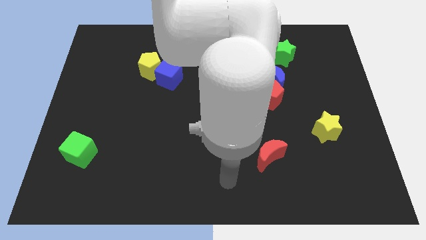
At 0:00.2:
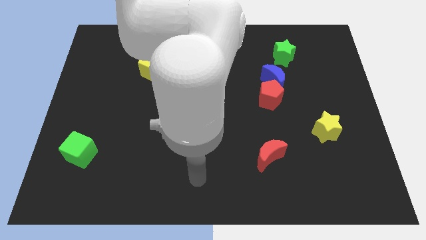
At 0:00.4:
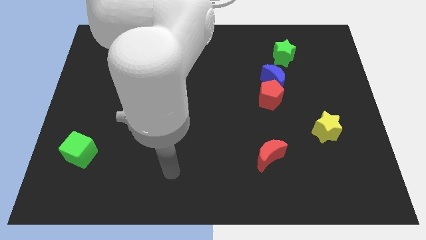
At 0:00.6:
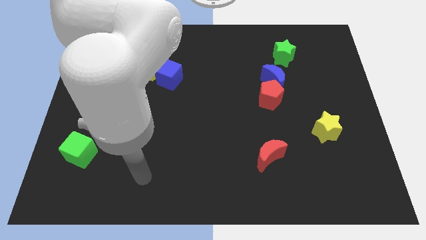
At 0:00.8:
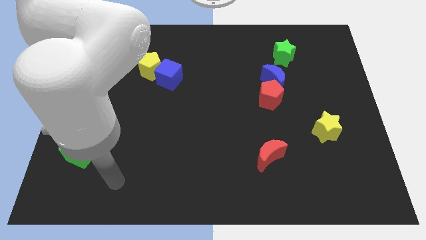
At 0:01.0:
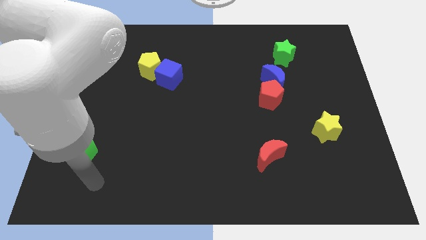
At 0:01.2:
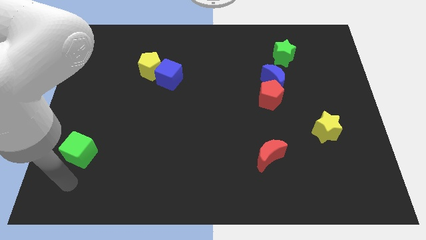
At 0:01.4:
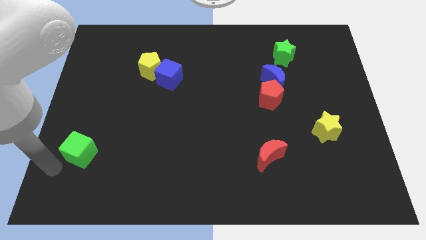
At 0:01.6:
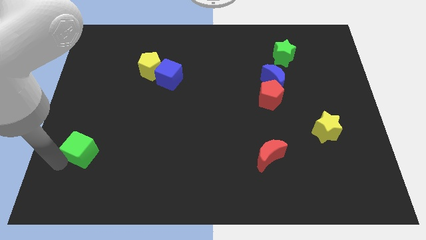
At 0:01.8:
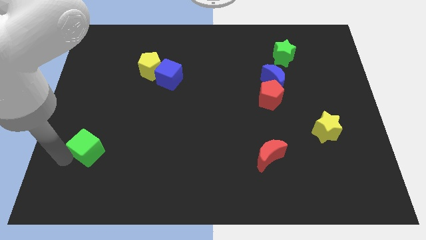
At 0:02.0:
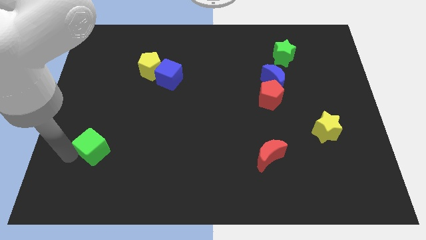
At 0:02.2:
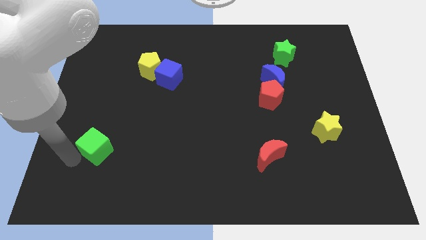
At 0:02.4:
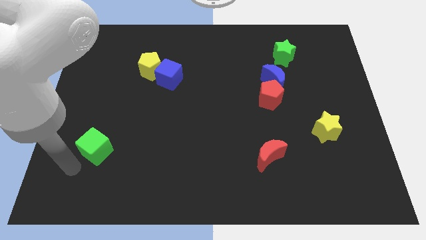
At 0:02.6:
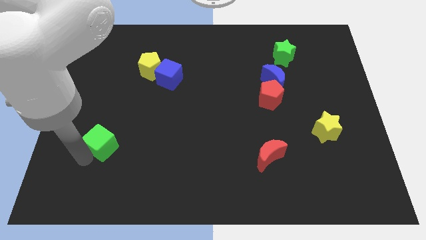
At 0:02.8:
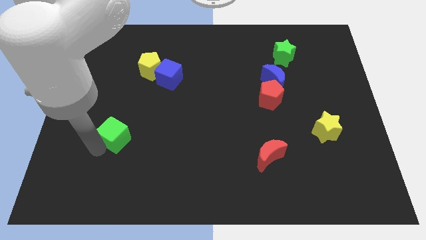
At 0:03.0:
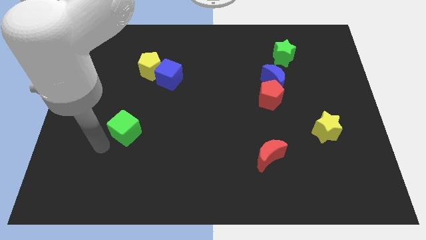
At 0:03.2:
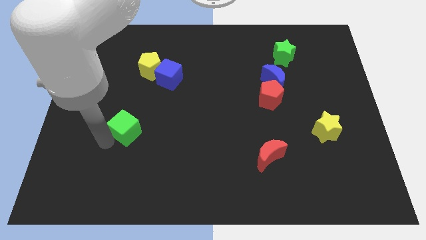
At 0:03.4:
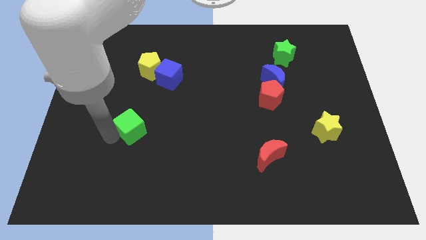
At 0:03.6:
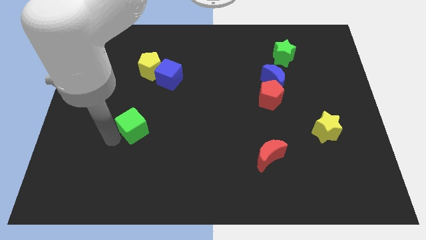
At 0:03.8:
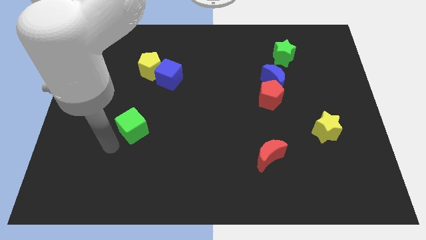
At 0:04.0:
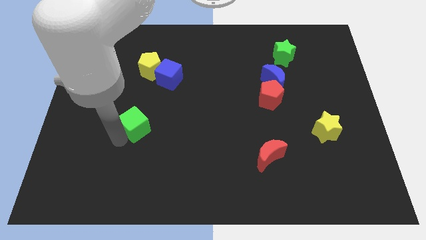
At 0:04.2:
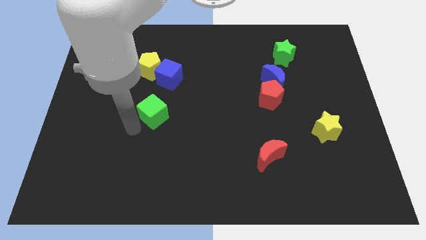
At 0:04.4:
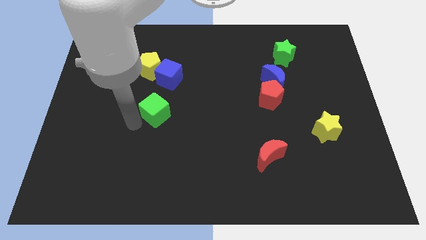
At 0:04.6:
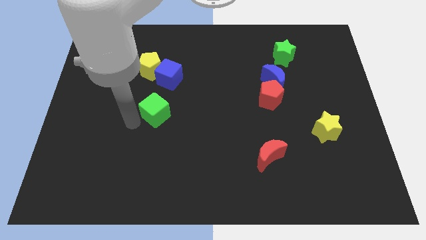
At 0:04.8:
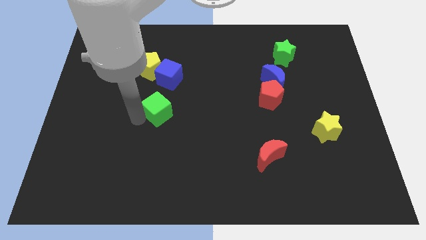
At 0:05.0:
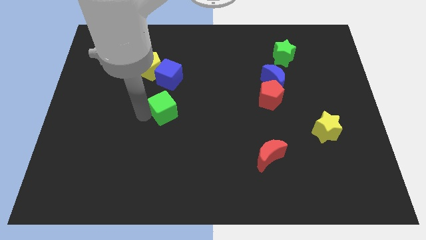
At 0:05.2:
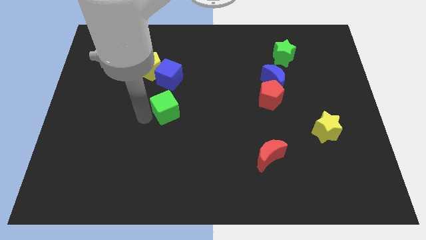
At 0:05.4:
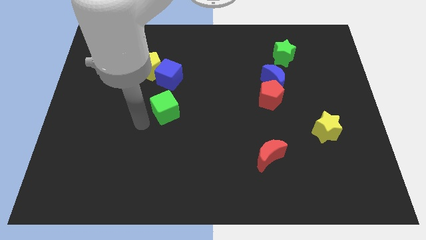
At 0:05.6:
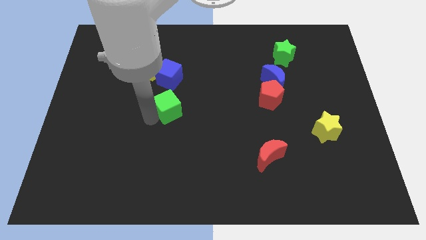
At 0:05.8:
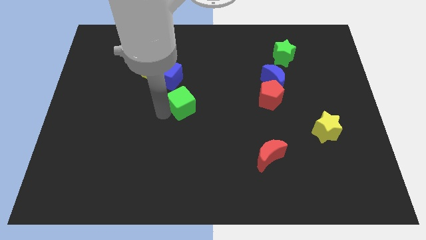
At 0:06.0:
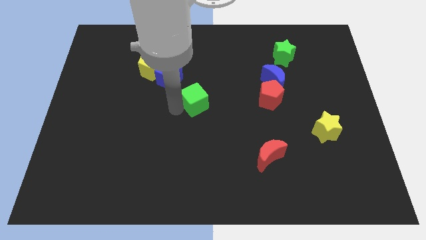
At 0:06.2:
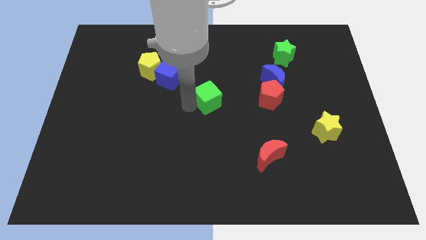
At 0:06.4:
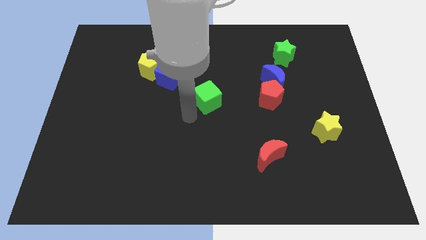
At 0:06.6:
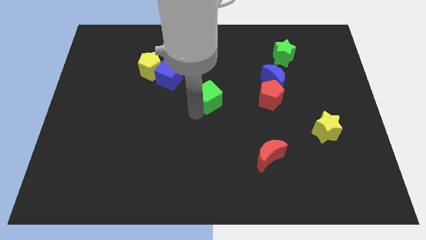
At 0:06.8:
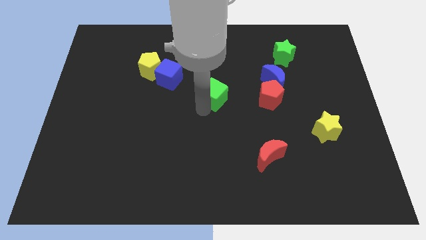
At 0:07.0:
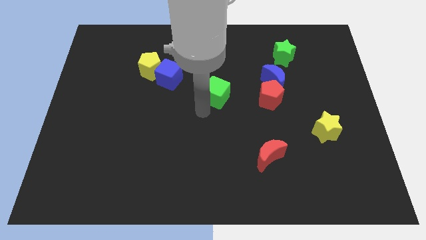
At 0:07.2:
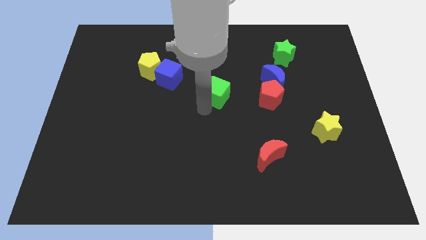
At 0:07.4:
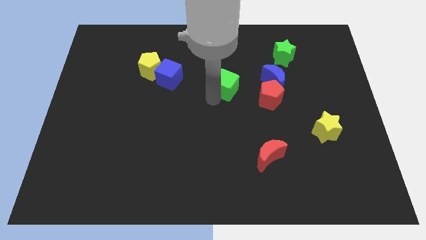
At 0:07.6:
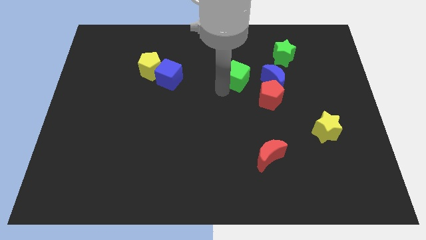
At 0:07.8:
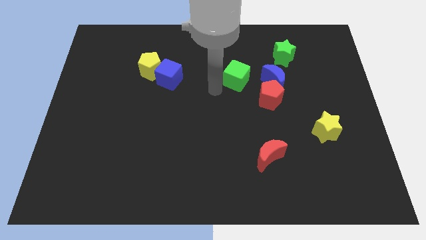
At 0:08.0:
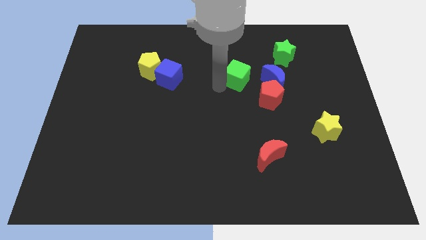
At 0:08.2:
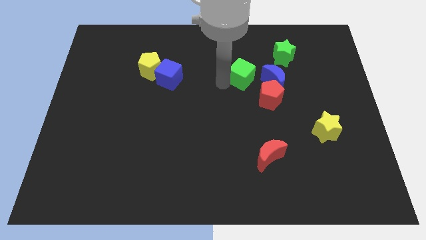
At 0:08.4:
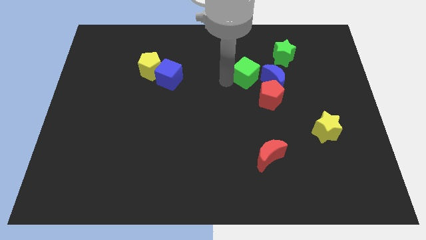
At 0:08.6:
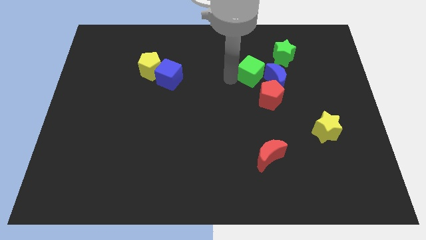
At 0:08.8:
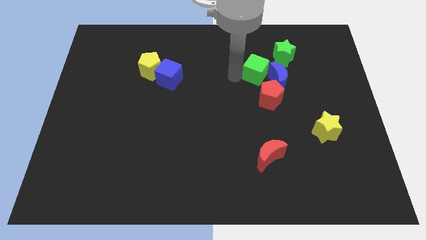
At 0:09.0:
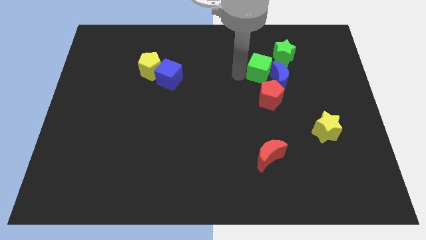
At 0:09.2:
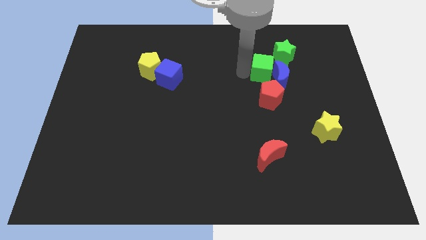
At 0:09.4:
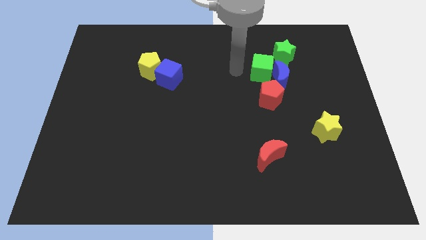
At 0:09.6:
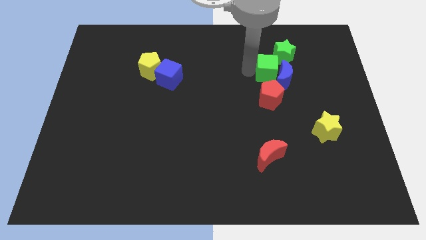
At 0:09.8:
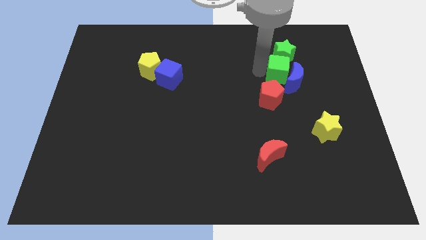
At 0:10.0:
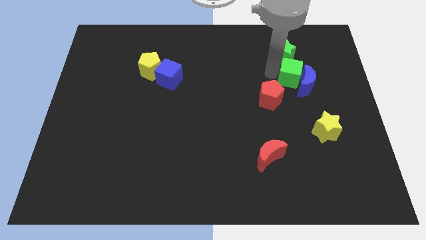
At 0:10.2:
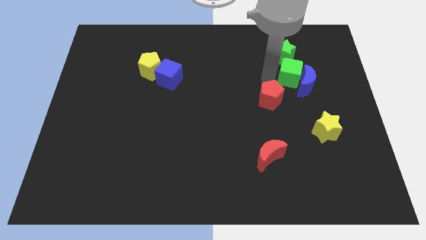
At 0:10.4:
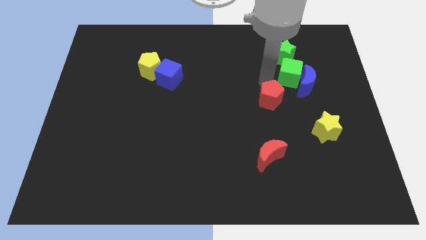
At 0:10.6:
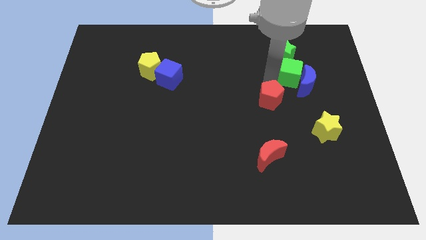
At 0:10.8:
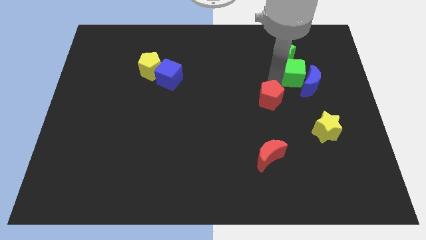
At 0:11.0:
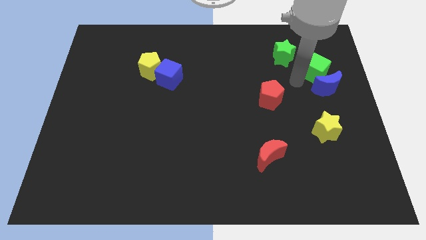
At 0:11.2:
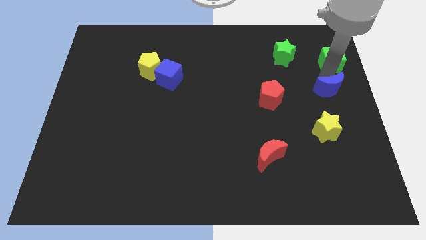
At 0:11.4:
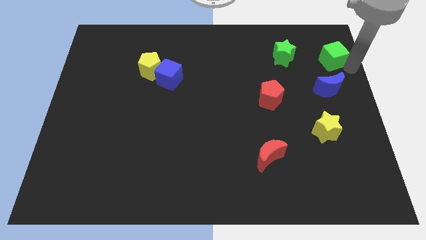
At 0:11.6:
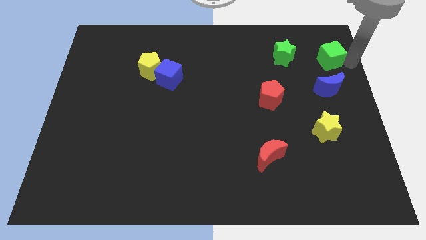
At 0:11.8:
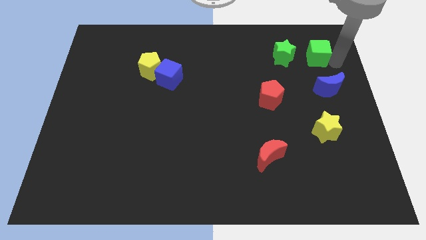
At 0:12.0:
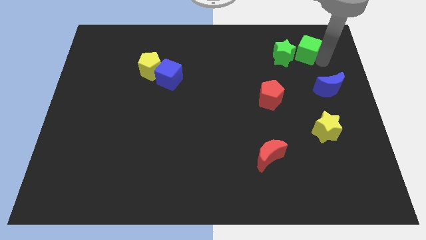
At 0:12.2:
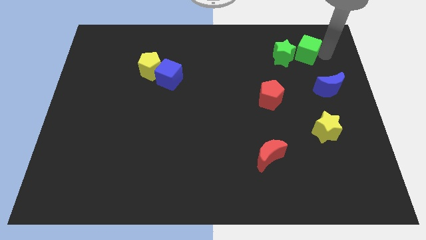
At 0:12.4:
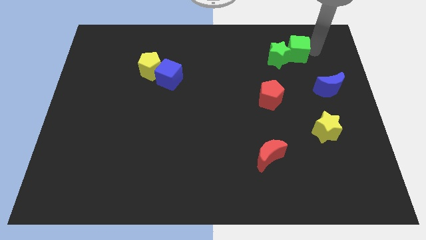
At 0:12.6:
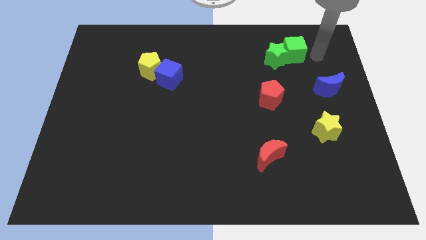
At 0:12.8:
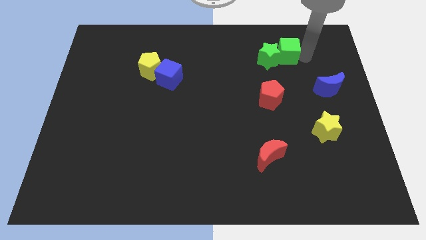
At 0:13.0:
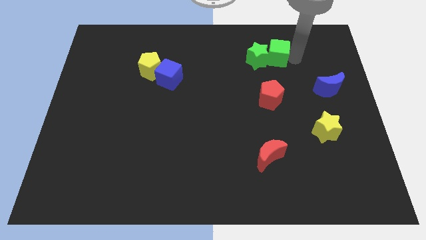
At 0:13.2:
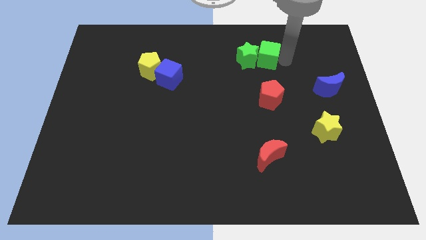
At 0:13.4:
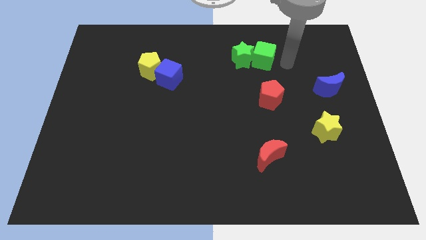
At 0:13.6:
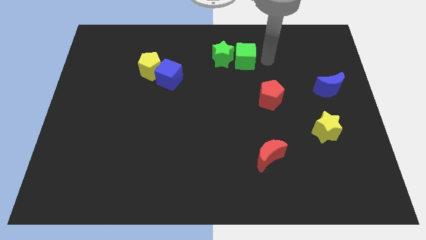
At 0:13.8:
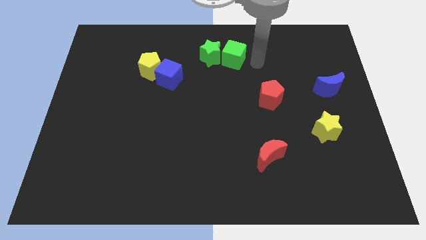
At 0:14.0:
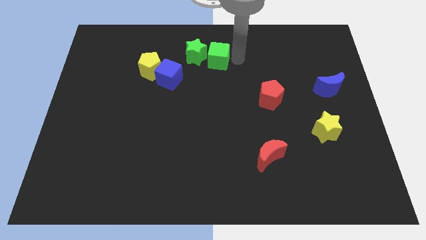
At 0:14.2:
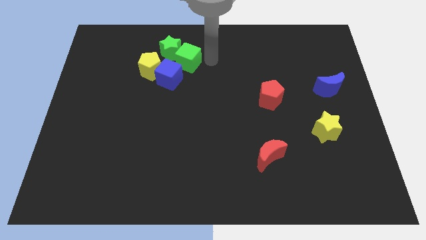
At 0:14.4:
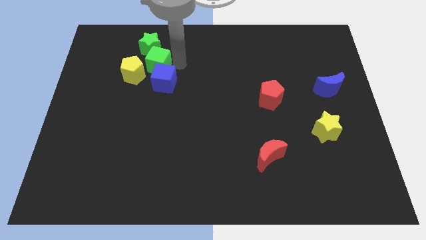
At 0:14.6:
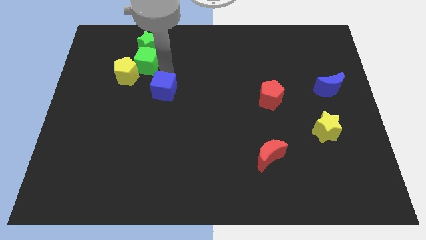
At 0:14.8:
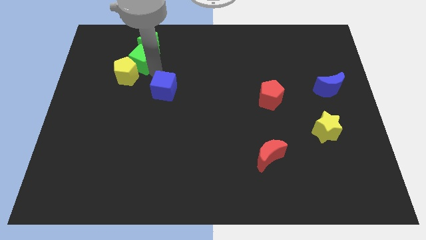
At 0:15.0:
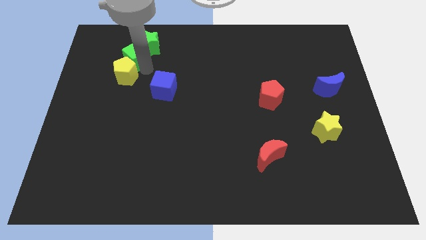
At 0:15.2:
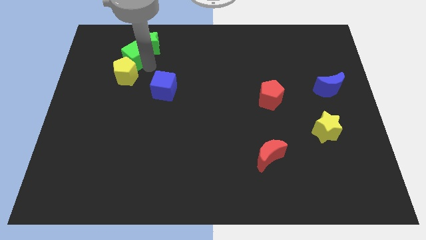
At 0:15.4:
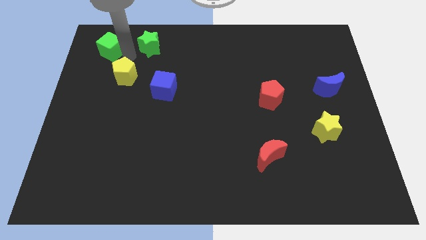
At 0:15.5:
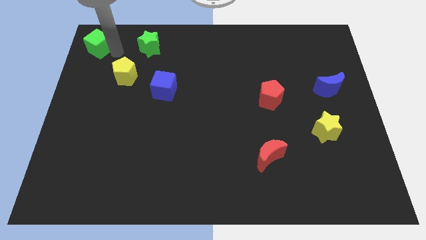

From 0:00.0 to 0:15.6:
move the green cube to the top left of the board
